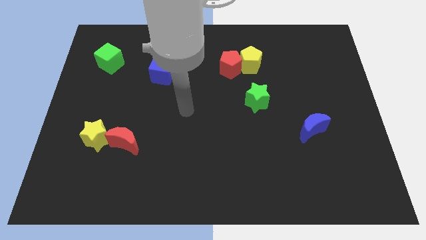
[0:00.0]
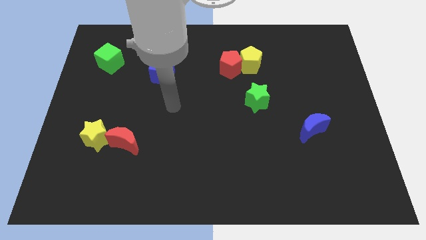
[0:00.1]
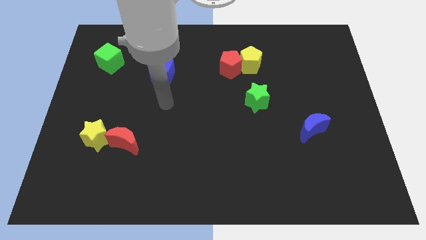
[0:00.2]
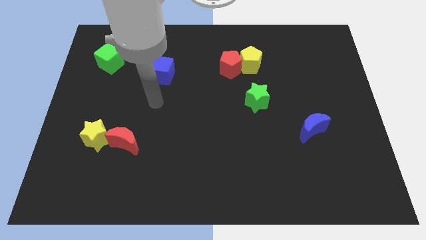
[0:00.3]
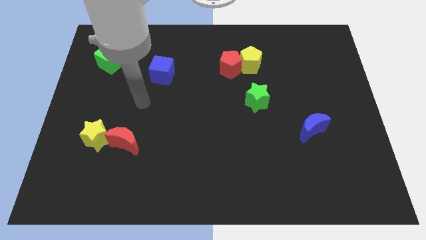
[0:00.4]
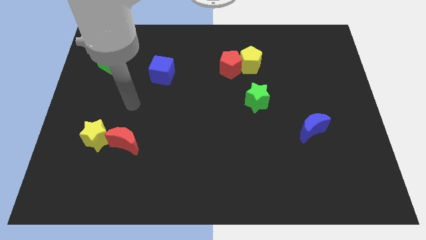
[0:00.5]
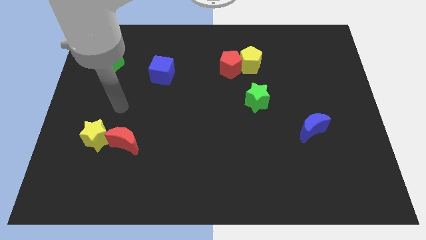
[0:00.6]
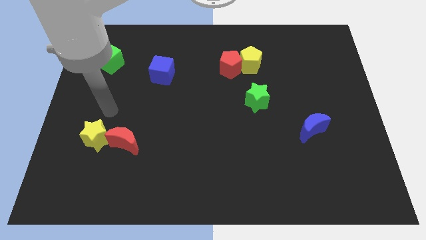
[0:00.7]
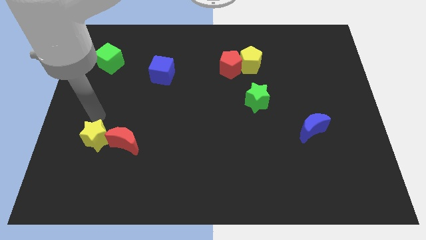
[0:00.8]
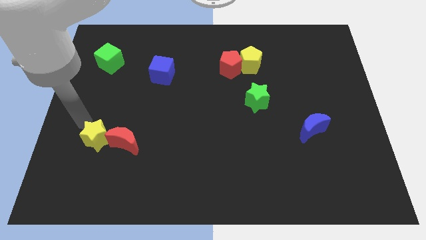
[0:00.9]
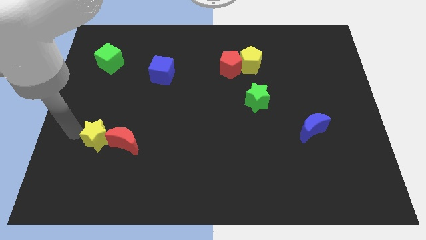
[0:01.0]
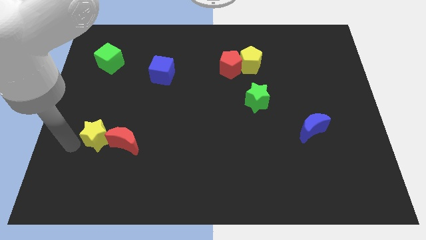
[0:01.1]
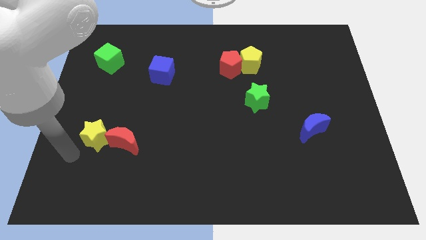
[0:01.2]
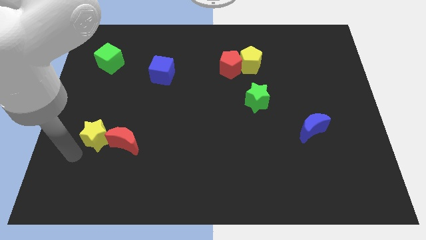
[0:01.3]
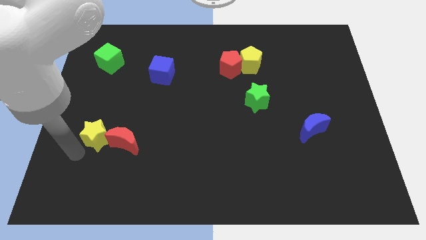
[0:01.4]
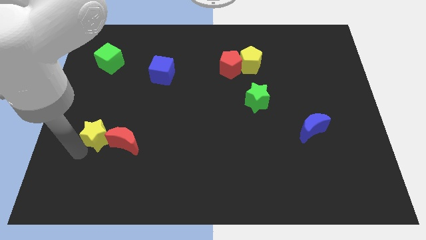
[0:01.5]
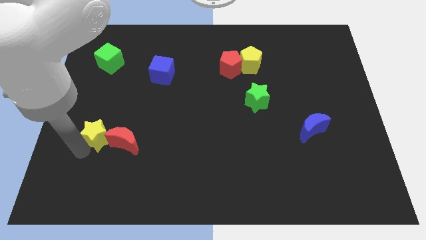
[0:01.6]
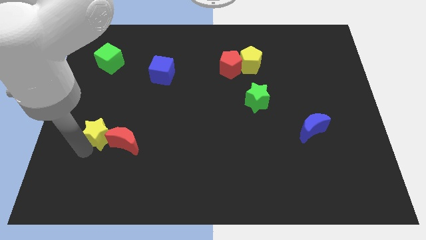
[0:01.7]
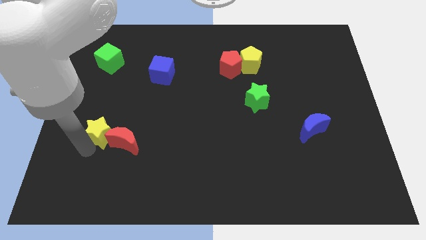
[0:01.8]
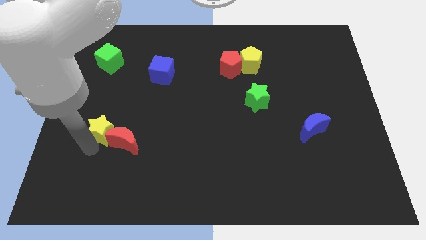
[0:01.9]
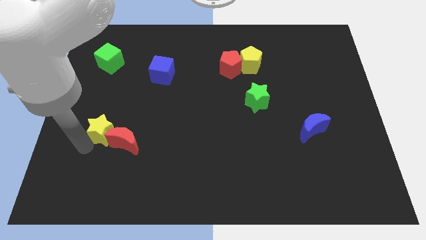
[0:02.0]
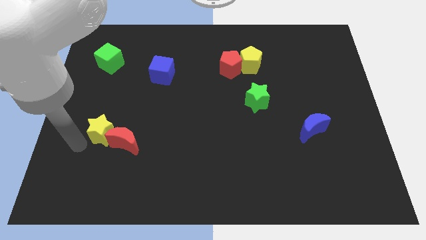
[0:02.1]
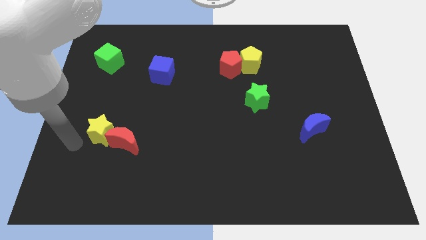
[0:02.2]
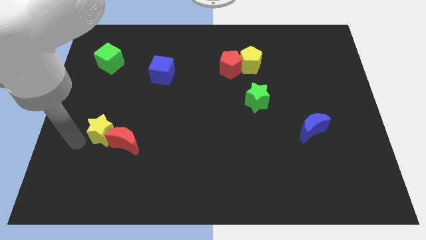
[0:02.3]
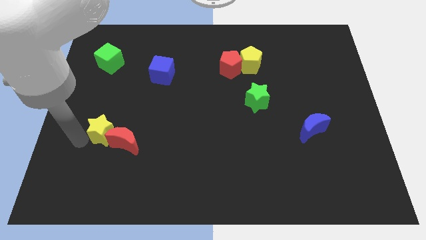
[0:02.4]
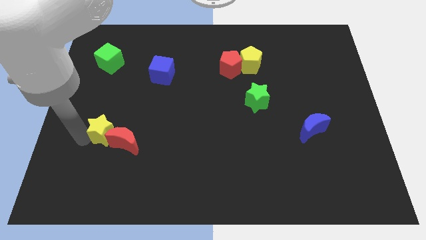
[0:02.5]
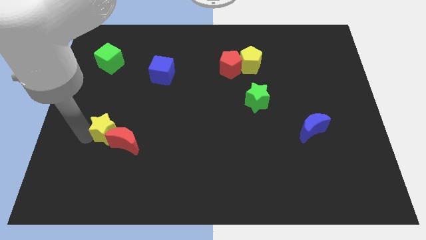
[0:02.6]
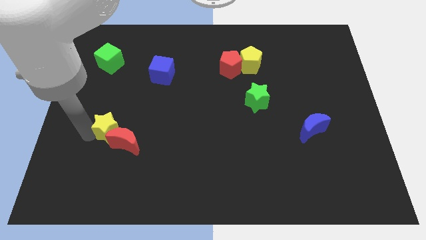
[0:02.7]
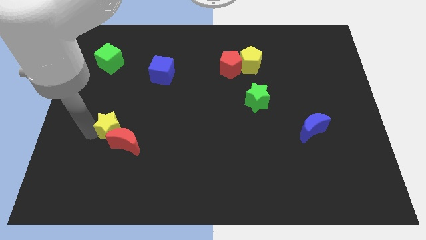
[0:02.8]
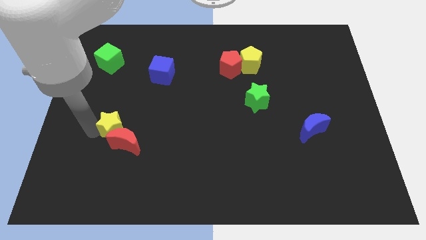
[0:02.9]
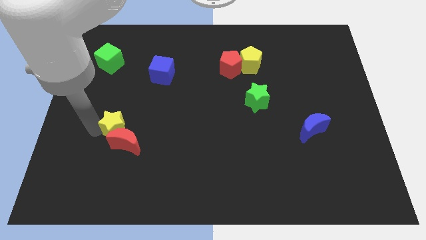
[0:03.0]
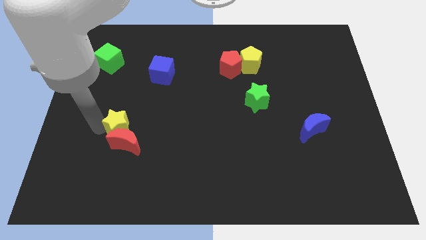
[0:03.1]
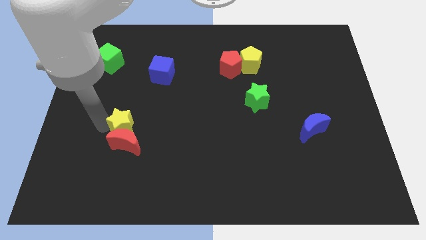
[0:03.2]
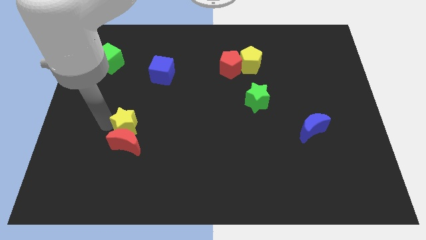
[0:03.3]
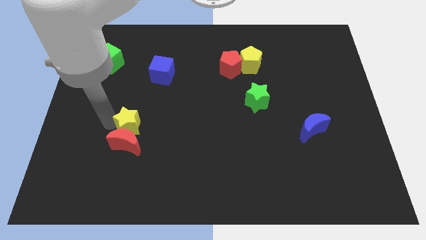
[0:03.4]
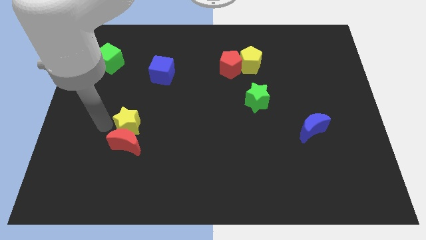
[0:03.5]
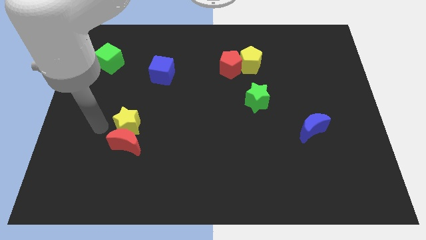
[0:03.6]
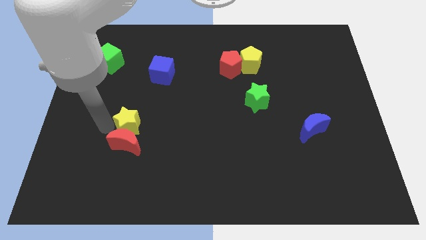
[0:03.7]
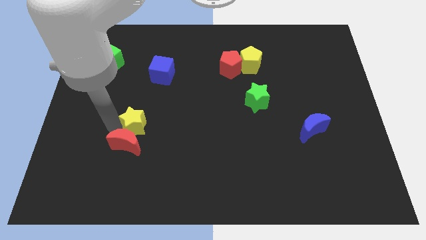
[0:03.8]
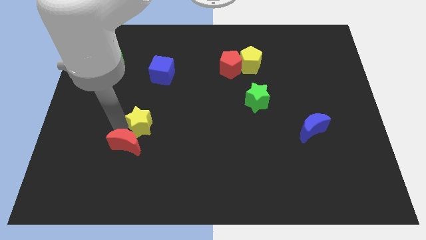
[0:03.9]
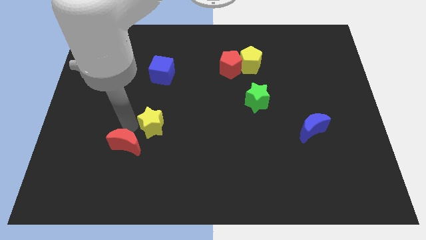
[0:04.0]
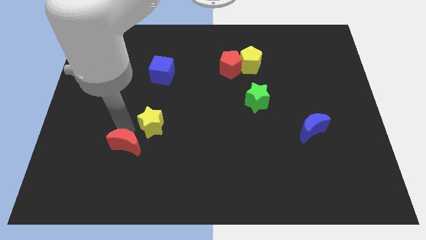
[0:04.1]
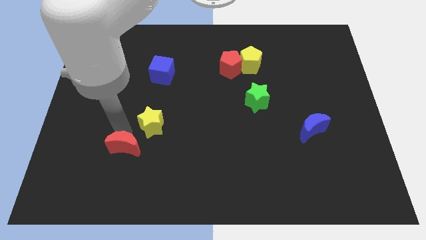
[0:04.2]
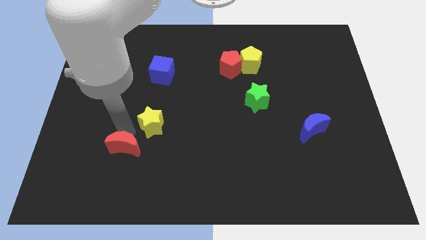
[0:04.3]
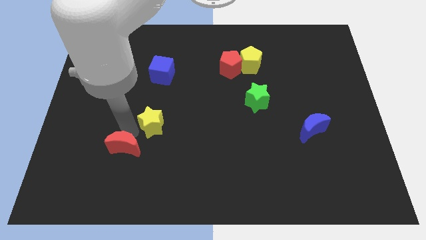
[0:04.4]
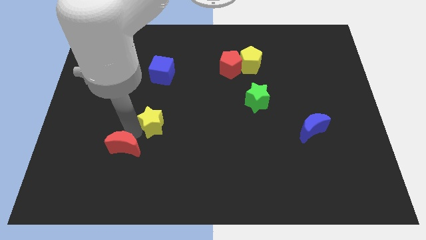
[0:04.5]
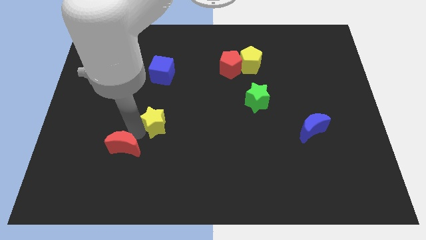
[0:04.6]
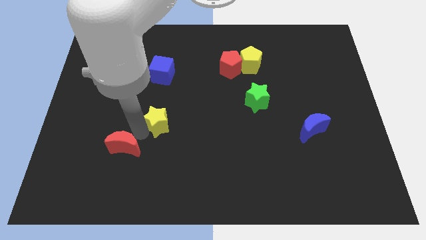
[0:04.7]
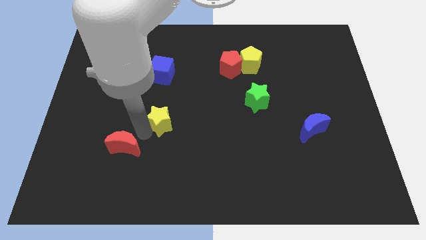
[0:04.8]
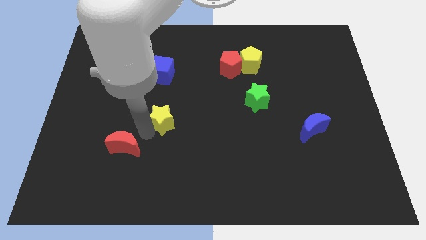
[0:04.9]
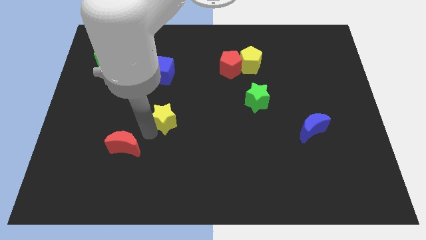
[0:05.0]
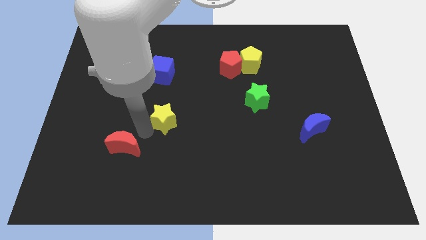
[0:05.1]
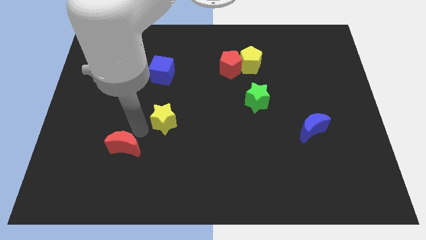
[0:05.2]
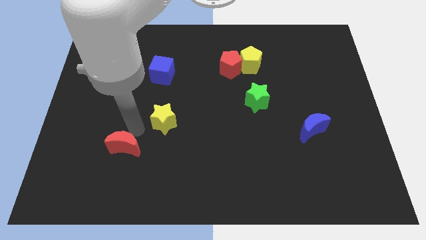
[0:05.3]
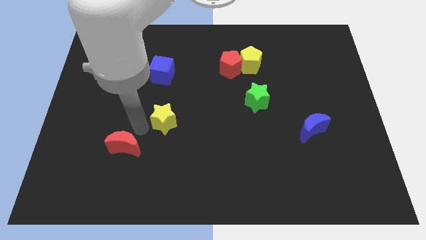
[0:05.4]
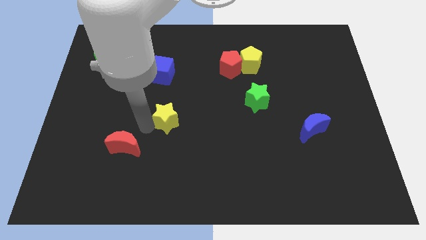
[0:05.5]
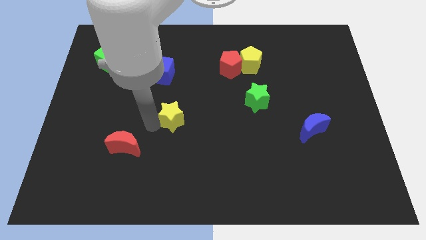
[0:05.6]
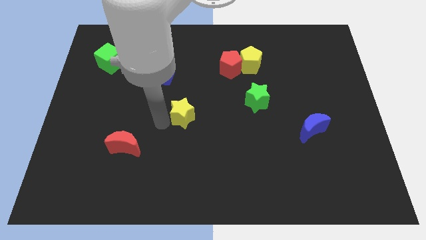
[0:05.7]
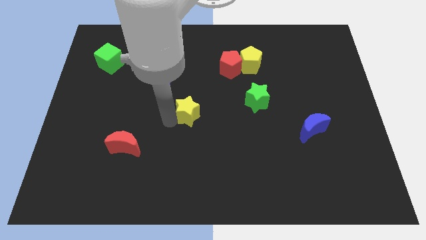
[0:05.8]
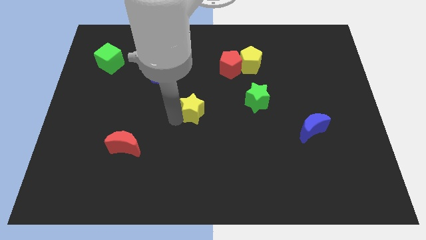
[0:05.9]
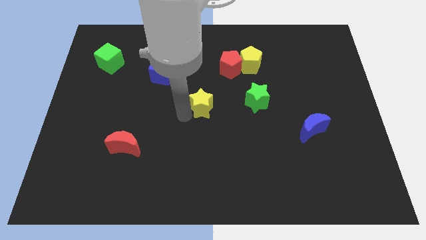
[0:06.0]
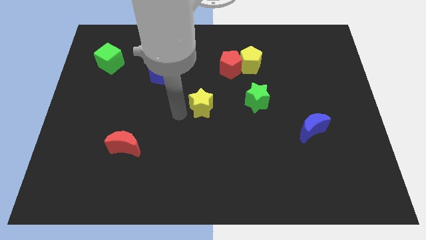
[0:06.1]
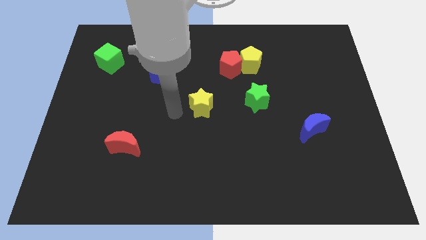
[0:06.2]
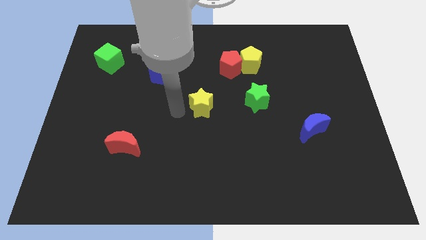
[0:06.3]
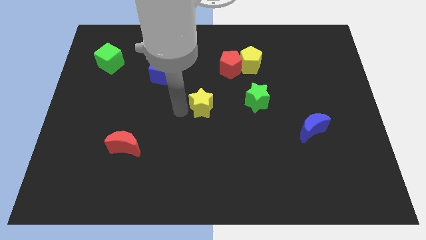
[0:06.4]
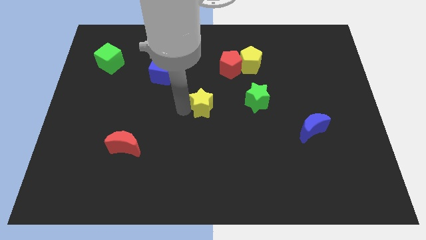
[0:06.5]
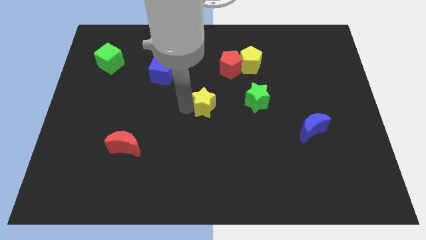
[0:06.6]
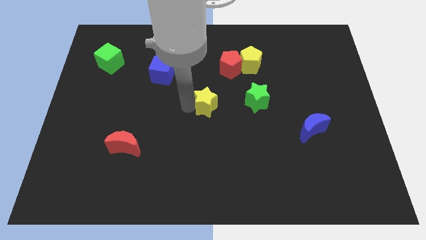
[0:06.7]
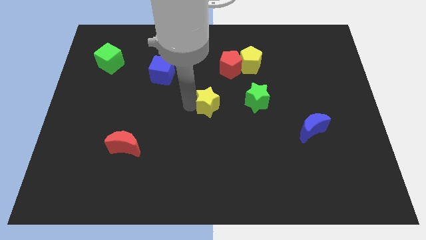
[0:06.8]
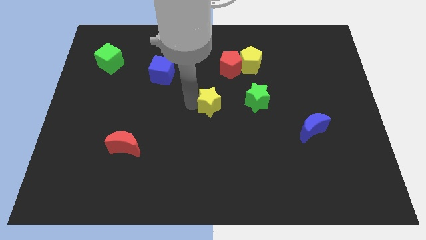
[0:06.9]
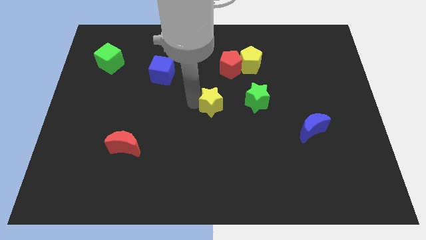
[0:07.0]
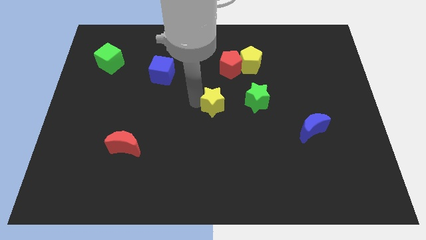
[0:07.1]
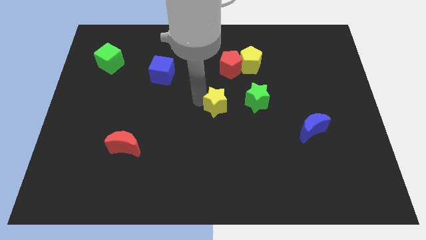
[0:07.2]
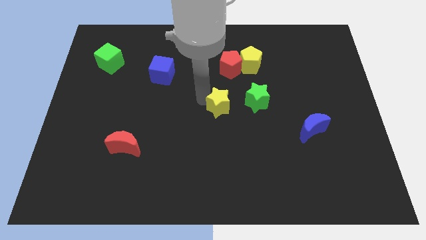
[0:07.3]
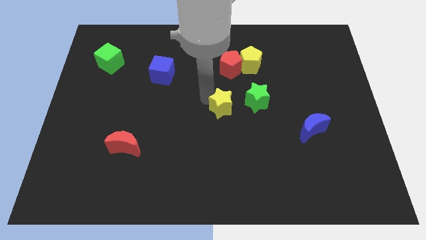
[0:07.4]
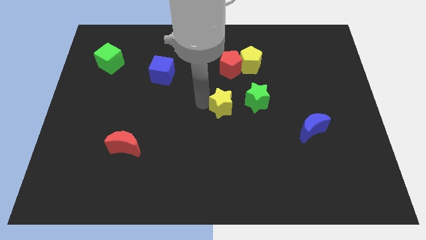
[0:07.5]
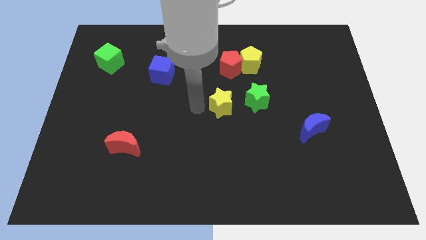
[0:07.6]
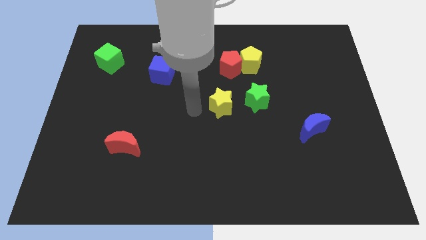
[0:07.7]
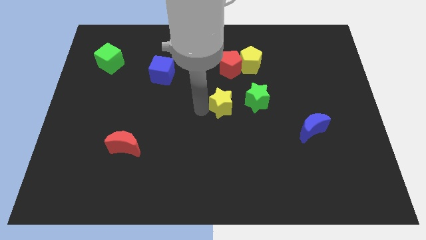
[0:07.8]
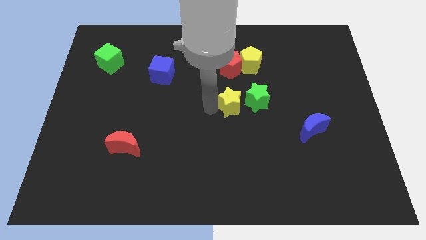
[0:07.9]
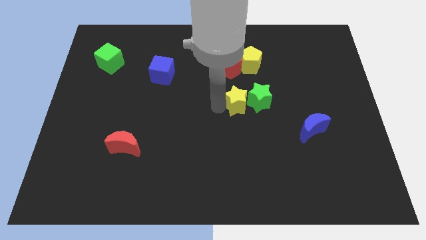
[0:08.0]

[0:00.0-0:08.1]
push the yellow star towards the green star
